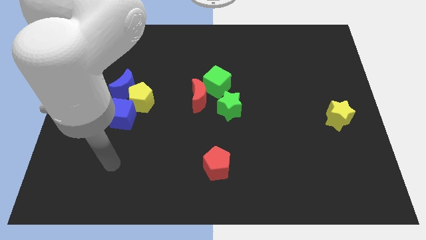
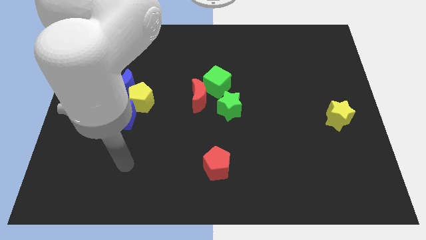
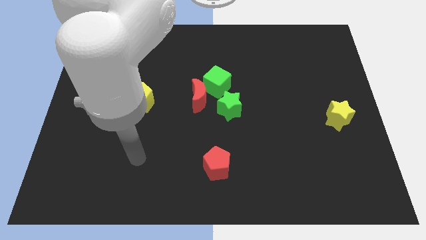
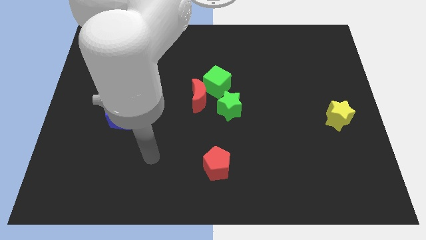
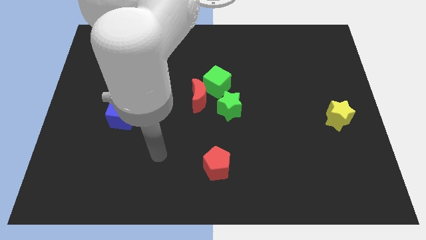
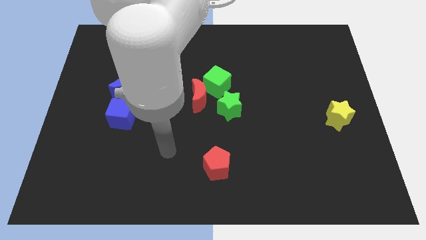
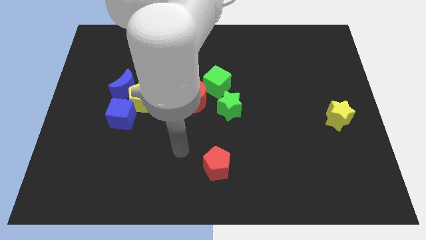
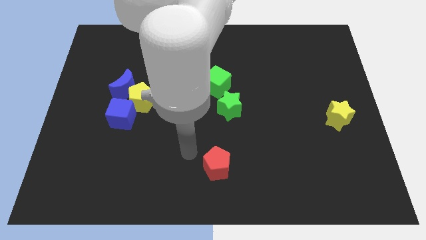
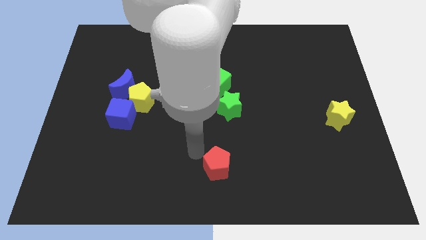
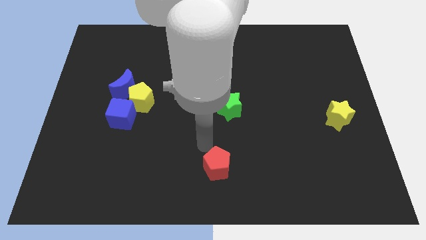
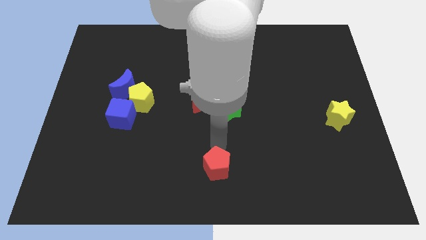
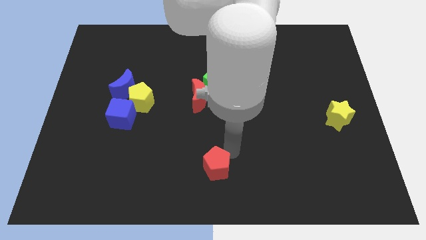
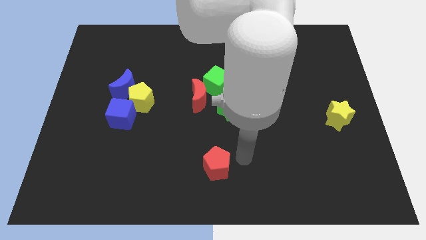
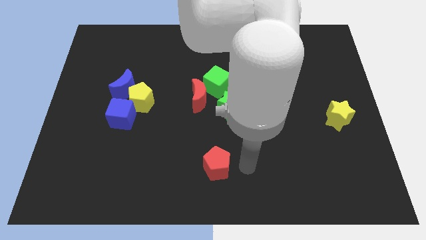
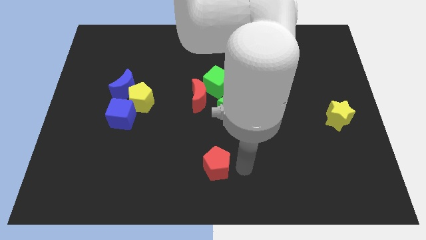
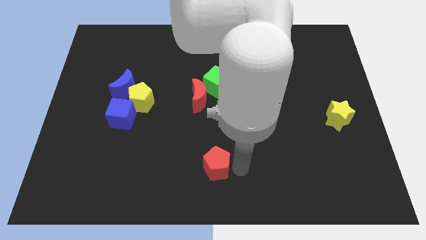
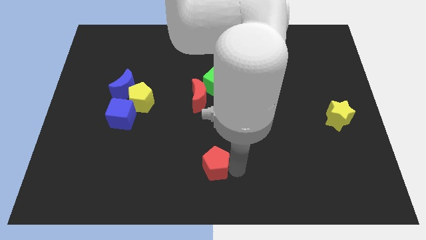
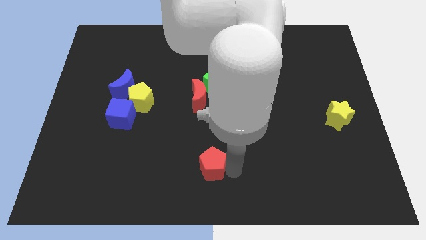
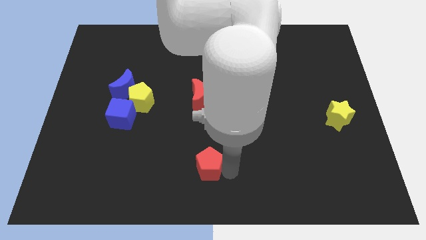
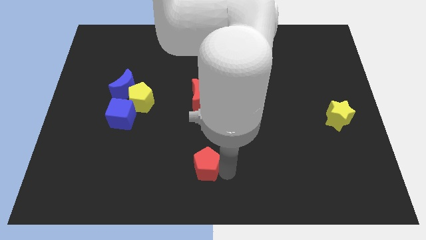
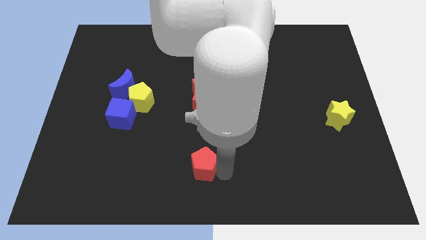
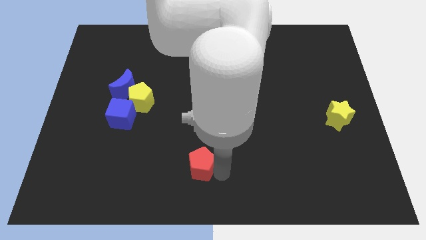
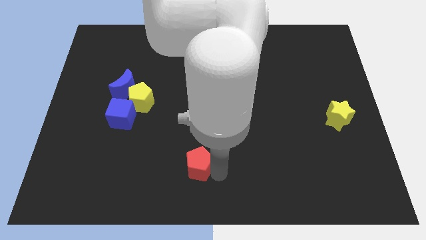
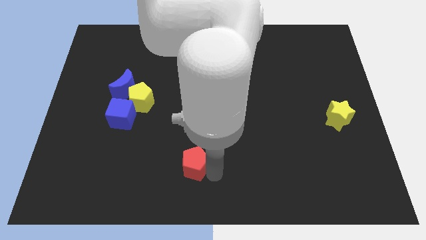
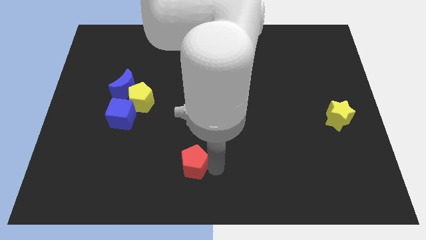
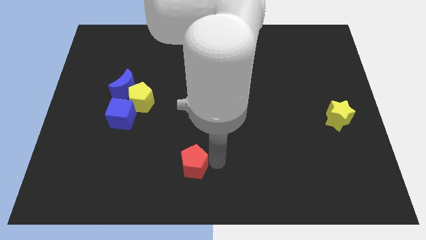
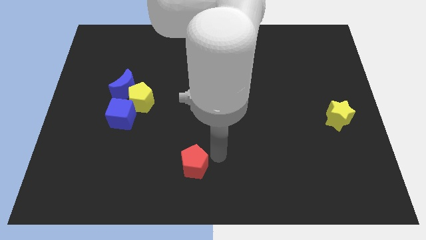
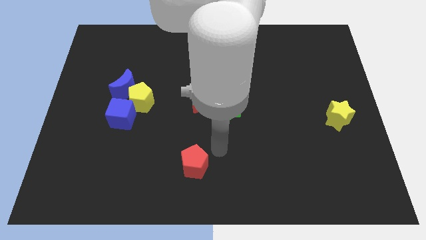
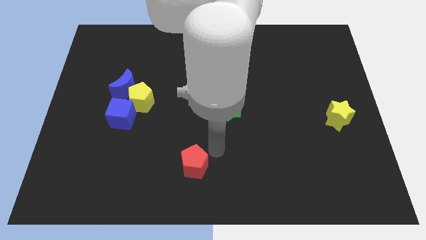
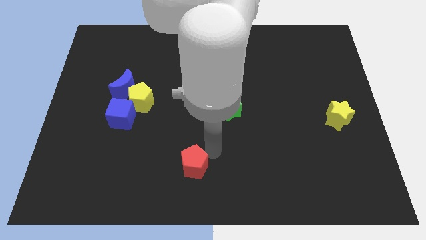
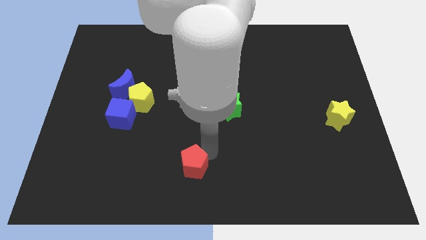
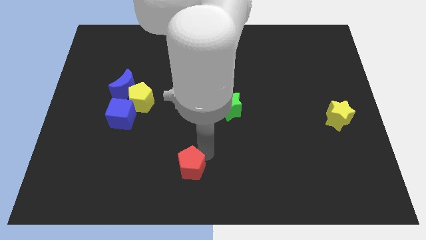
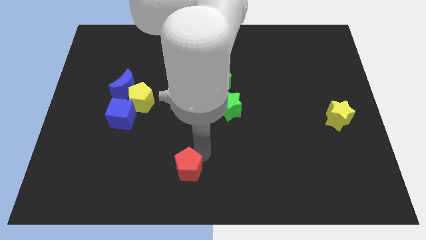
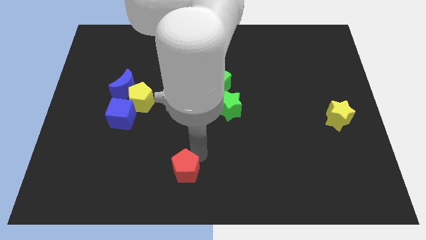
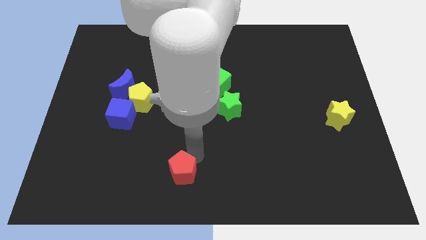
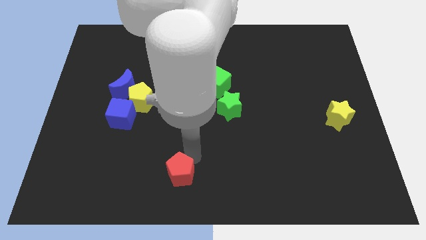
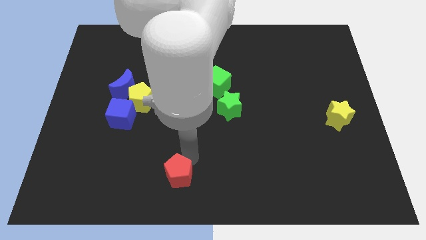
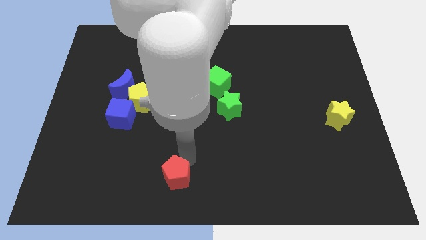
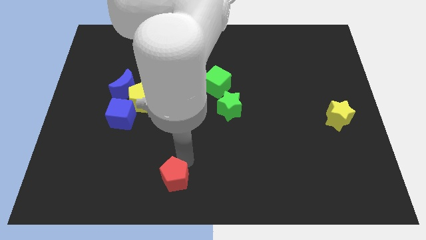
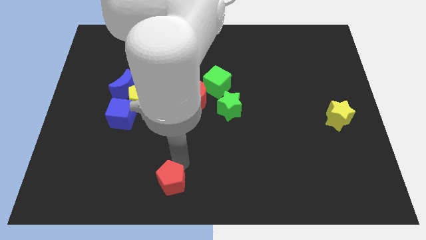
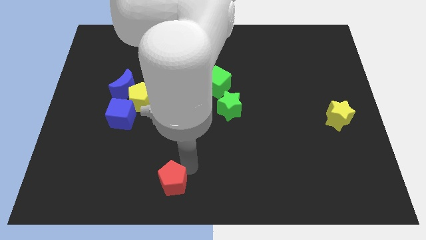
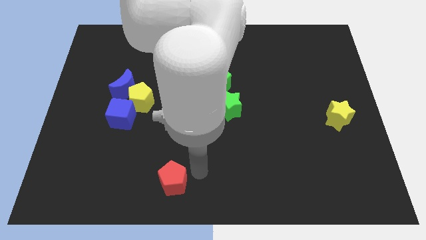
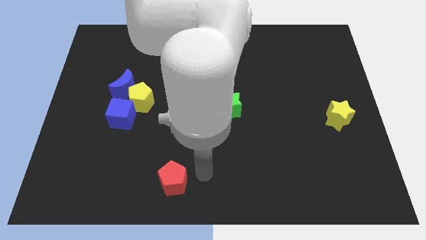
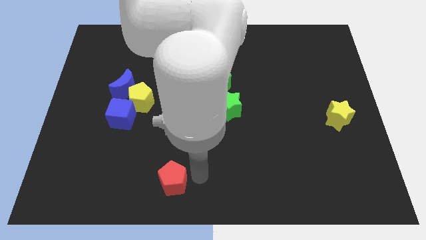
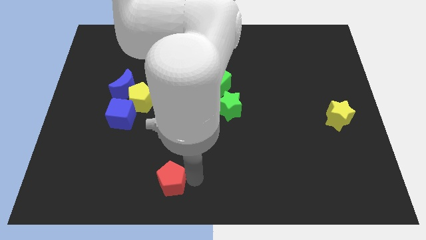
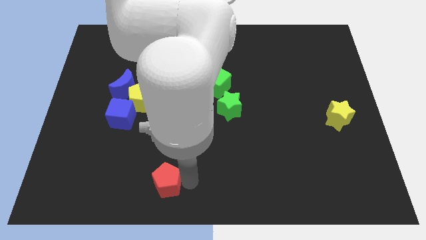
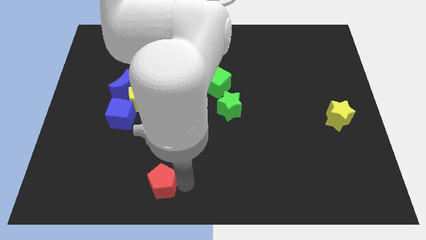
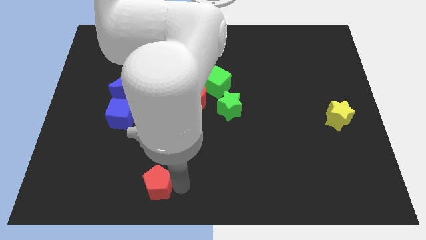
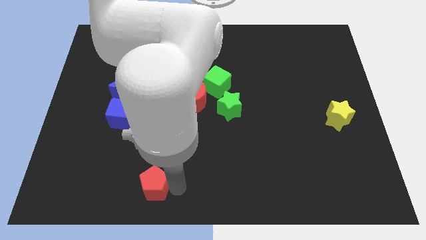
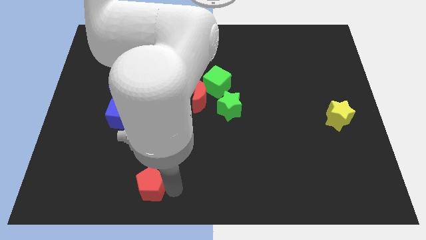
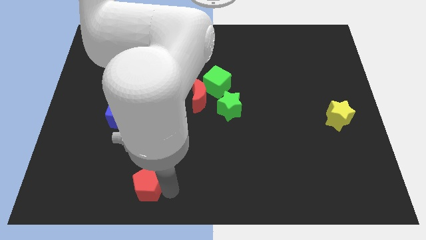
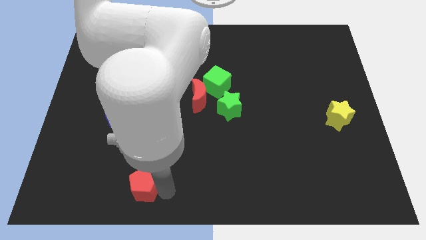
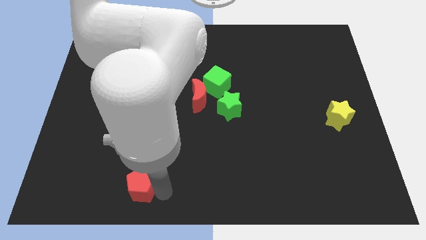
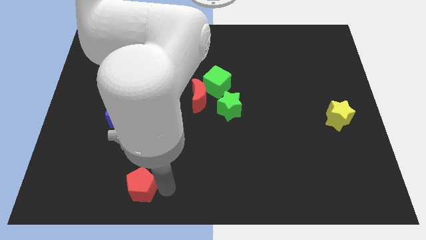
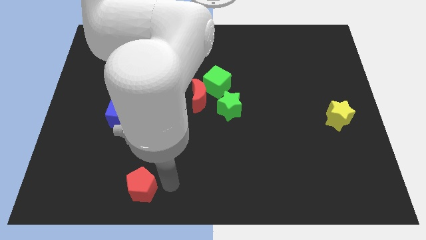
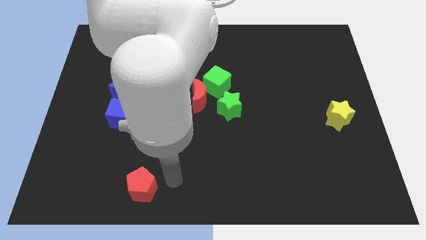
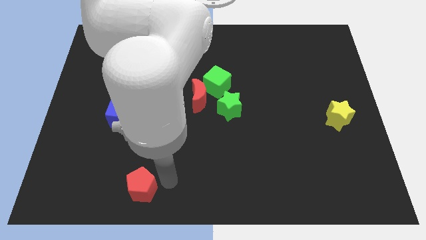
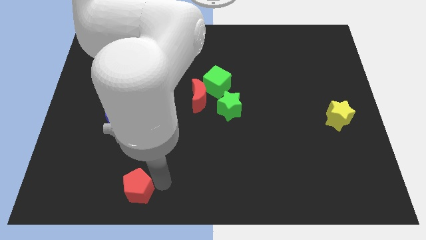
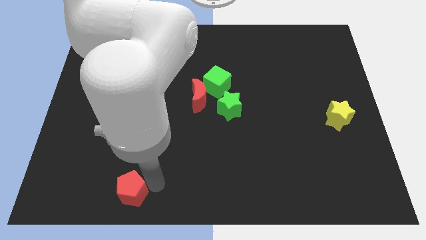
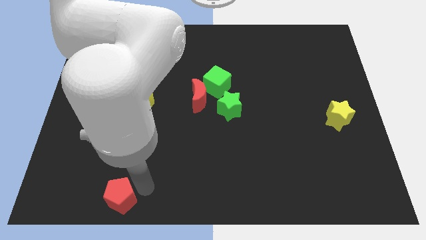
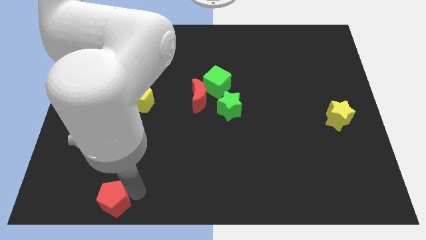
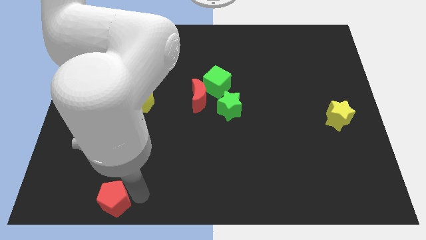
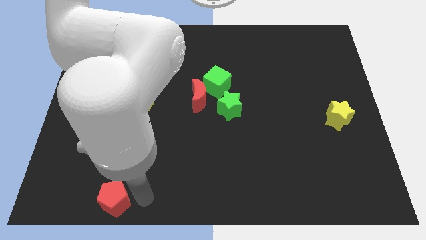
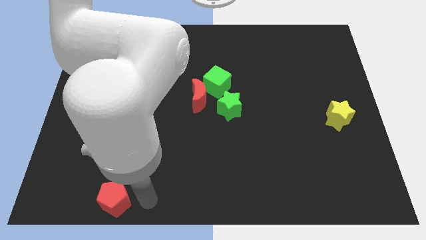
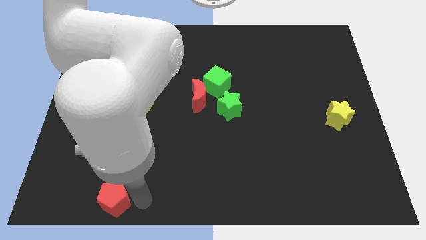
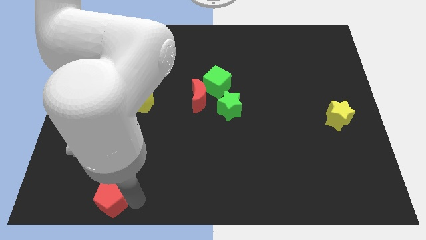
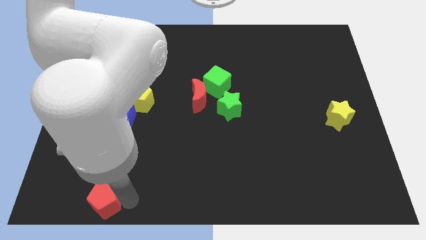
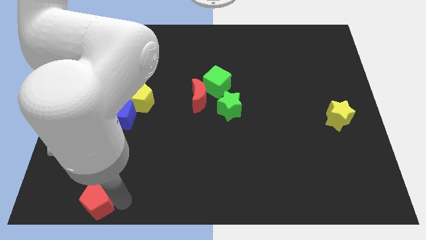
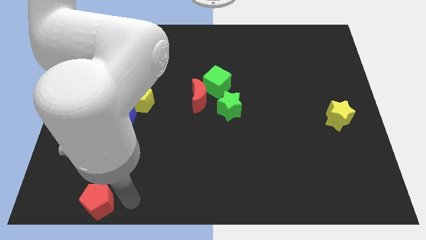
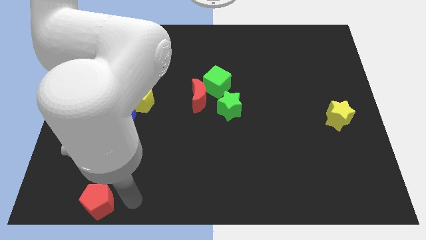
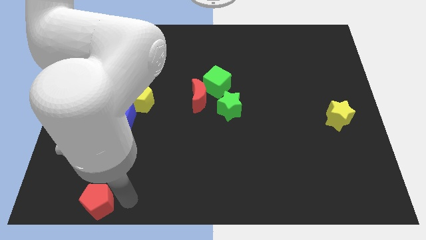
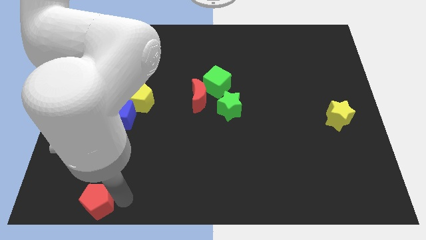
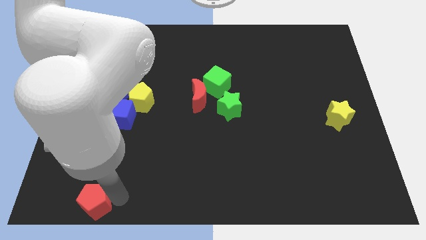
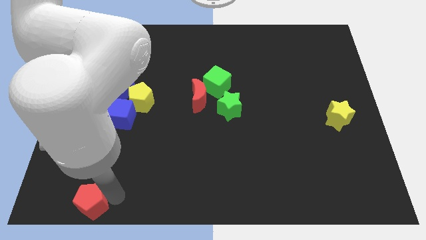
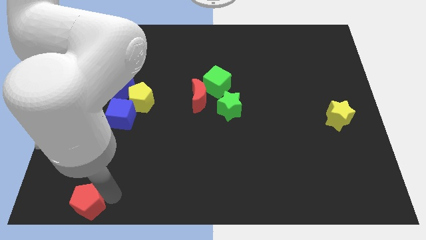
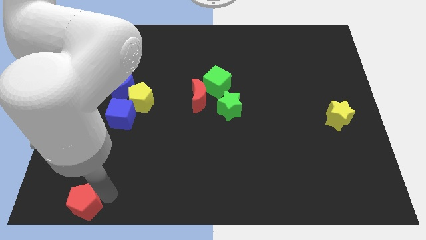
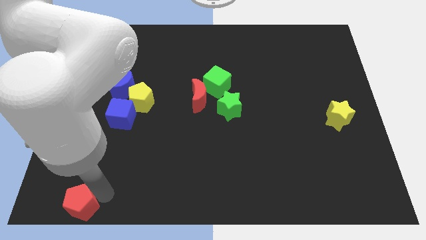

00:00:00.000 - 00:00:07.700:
push the red pentagon to the bottom left corner
